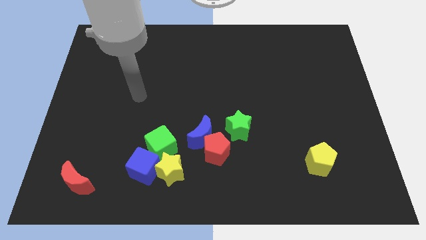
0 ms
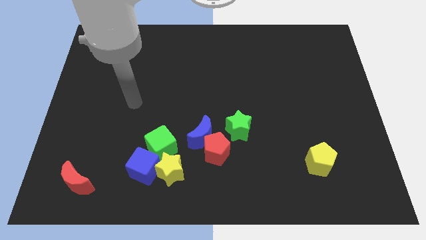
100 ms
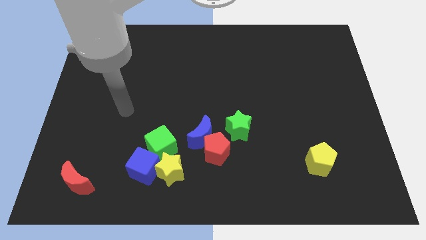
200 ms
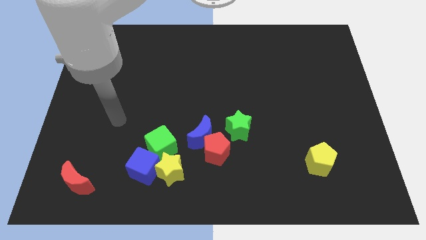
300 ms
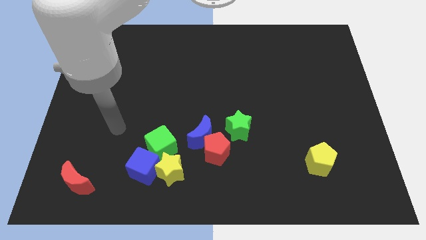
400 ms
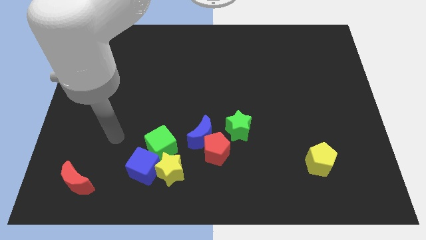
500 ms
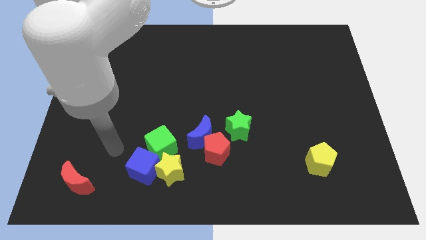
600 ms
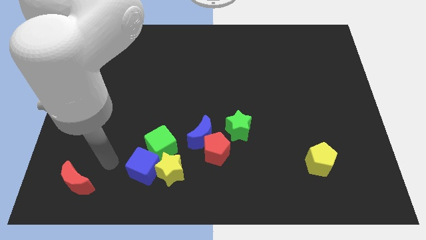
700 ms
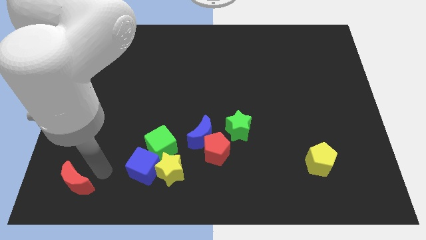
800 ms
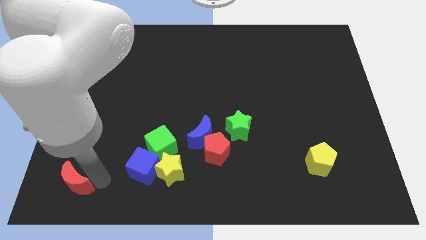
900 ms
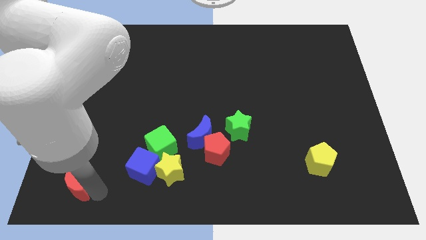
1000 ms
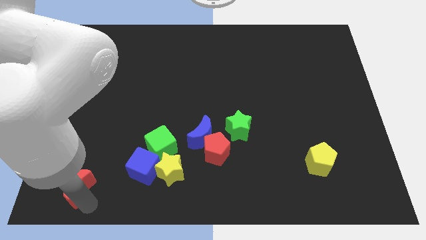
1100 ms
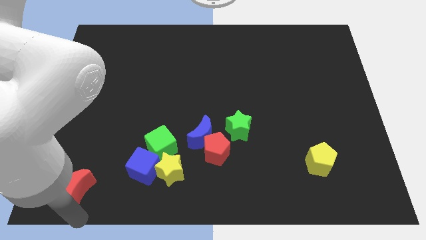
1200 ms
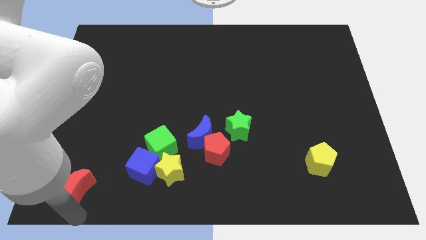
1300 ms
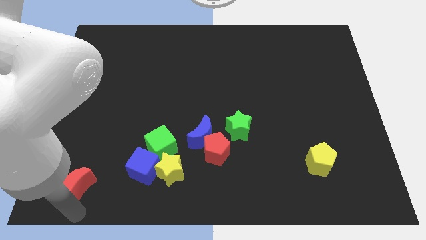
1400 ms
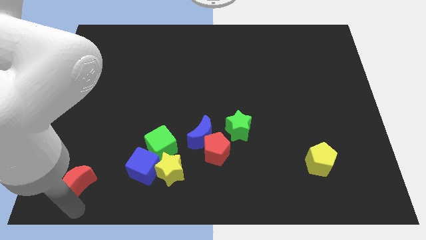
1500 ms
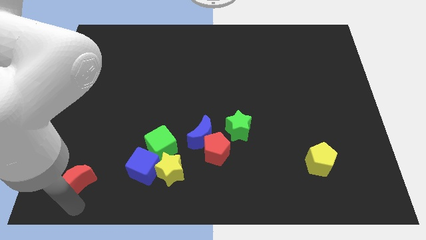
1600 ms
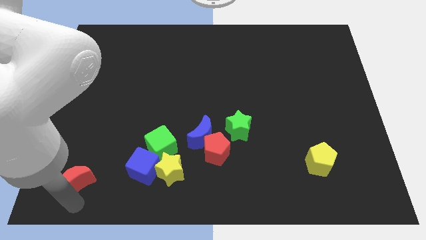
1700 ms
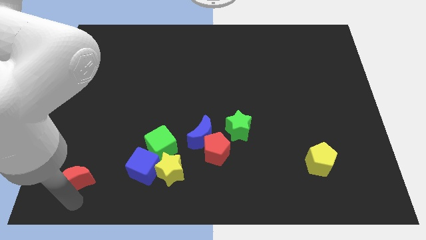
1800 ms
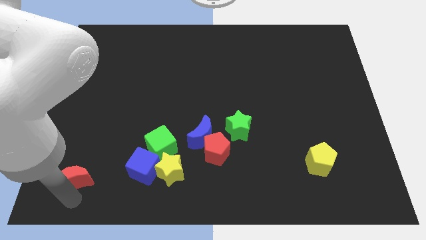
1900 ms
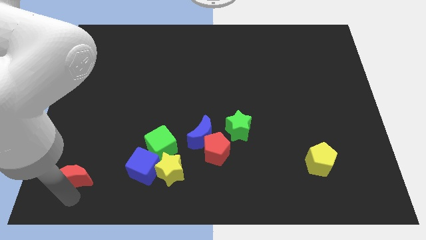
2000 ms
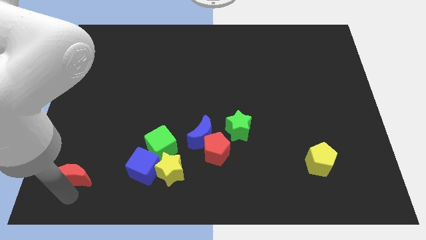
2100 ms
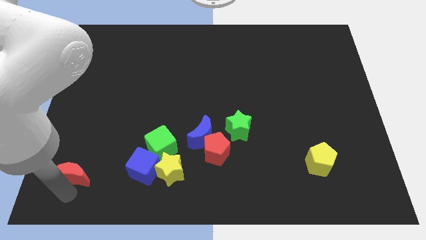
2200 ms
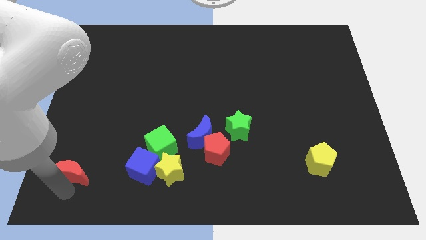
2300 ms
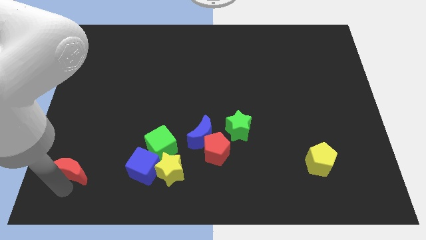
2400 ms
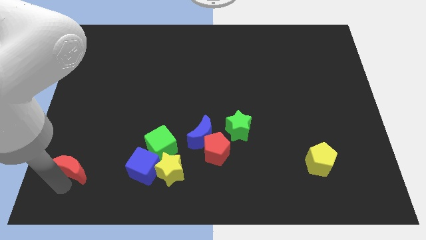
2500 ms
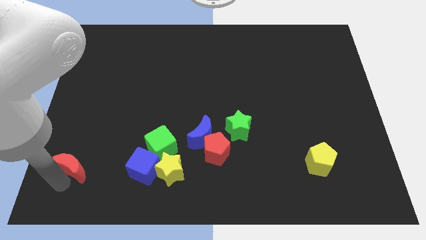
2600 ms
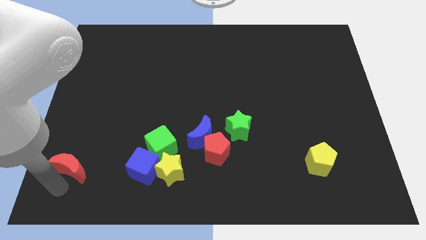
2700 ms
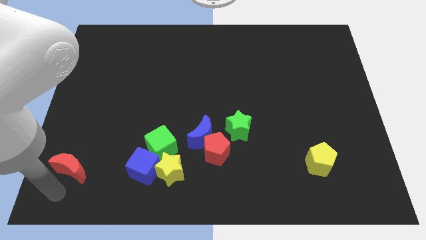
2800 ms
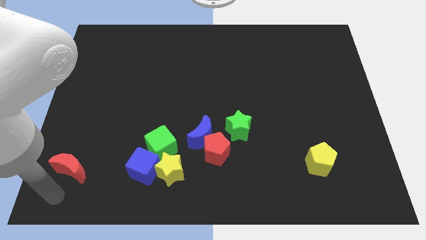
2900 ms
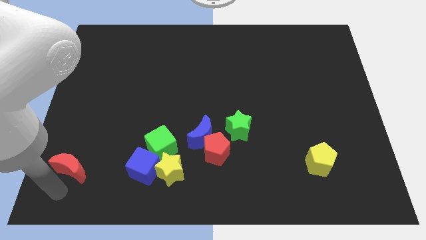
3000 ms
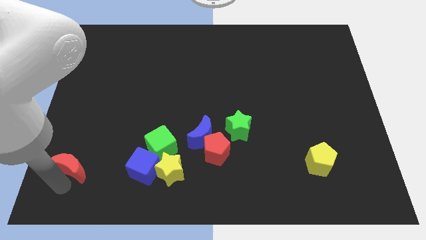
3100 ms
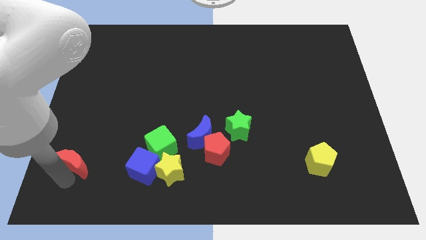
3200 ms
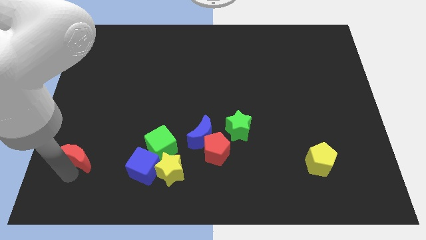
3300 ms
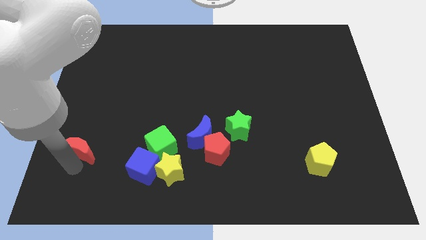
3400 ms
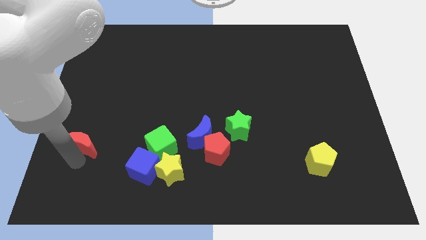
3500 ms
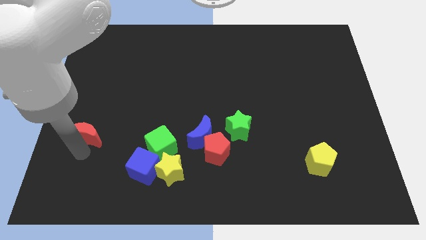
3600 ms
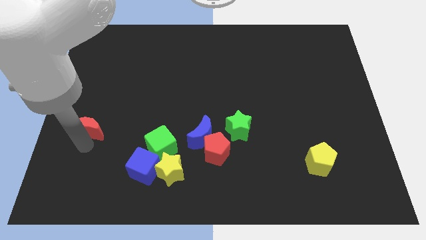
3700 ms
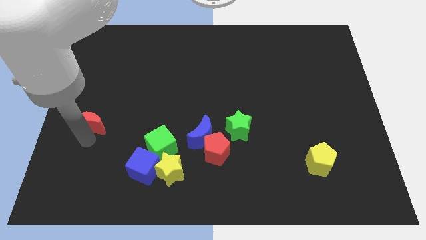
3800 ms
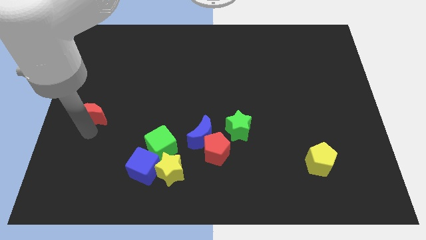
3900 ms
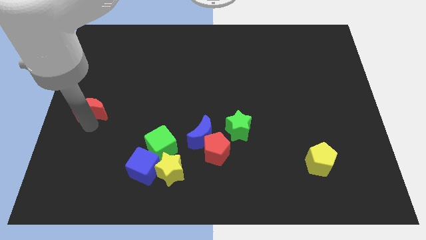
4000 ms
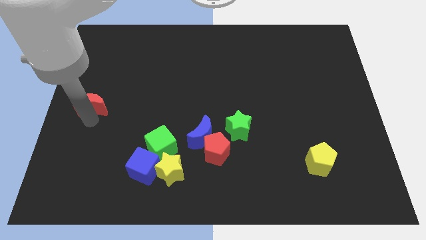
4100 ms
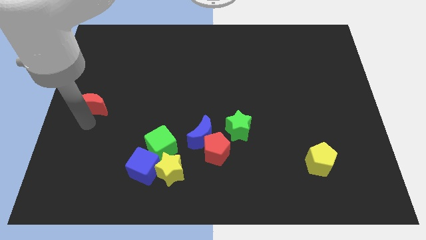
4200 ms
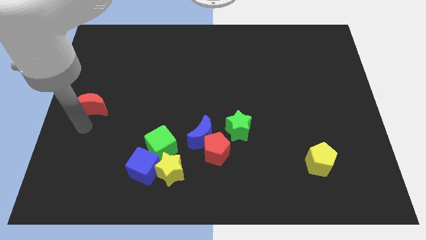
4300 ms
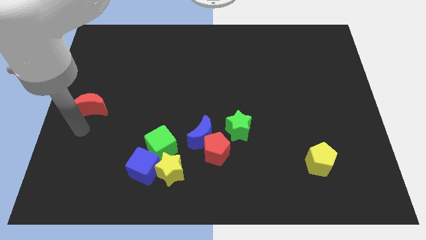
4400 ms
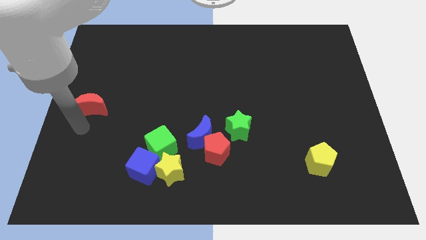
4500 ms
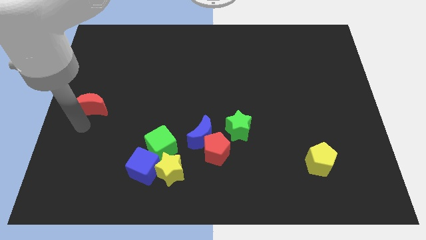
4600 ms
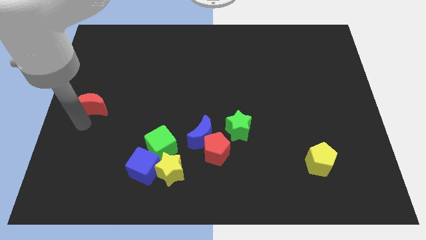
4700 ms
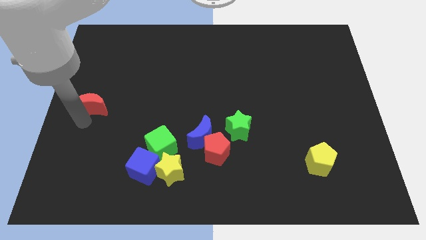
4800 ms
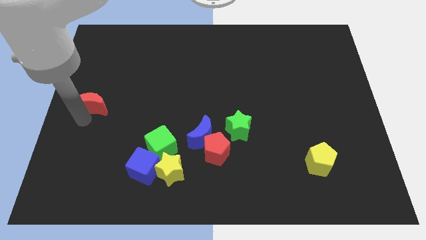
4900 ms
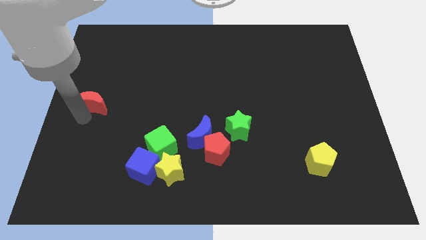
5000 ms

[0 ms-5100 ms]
push the red moon upwards

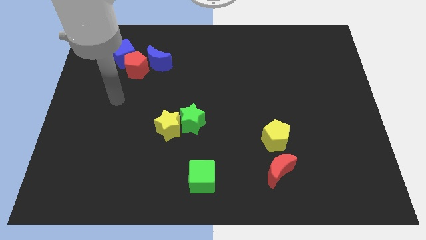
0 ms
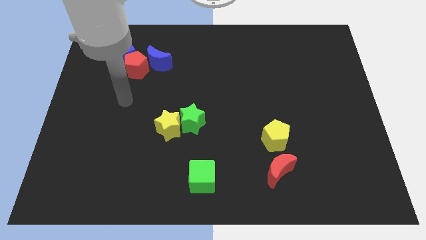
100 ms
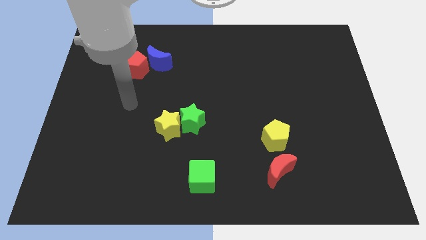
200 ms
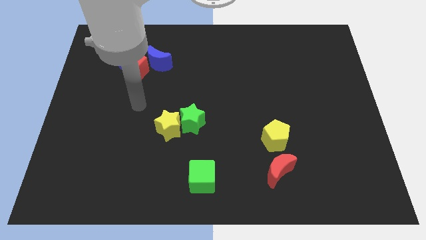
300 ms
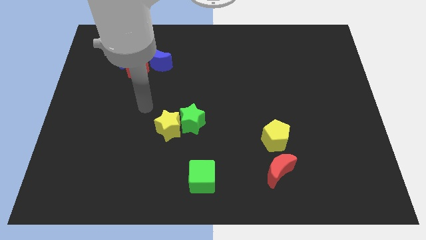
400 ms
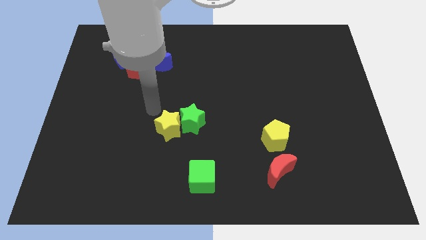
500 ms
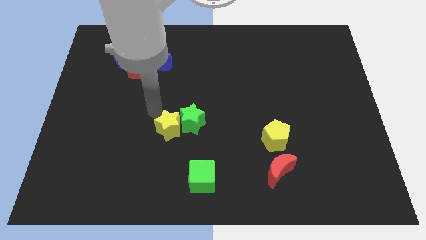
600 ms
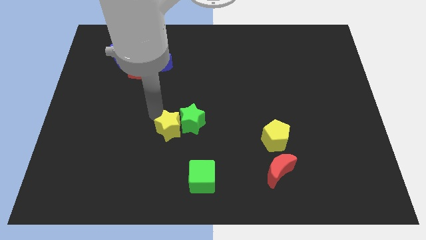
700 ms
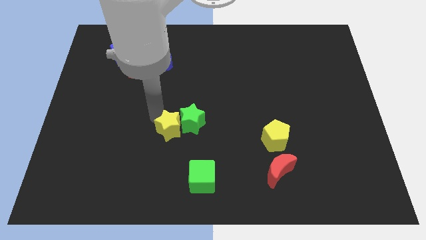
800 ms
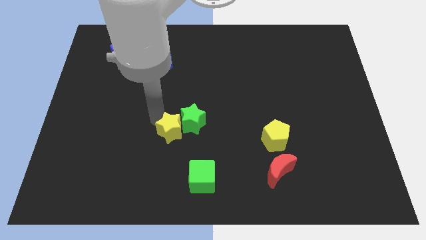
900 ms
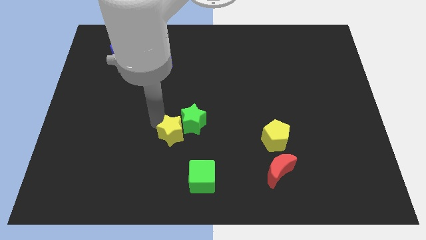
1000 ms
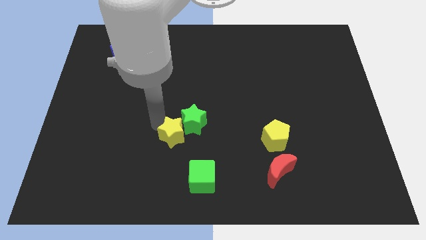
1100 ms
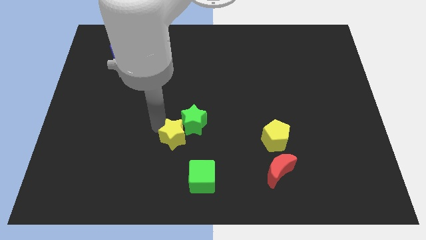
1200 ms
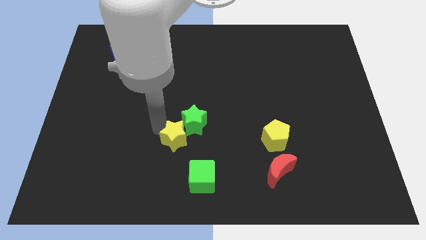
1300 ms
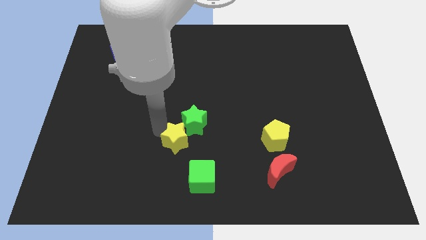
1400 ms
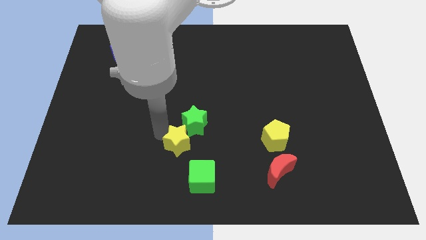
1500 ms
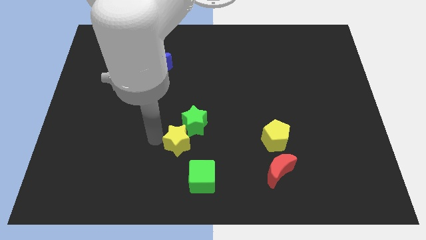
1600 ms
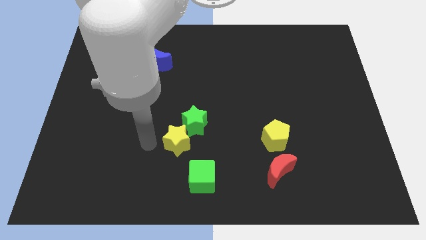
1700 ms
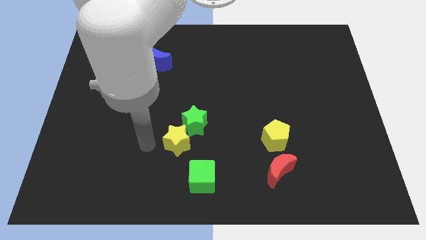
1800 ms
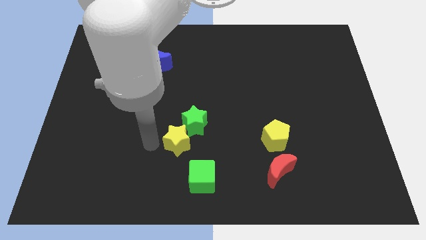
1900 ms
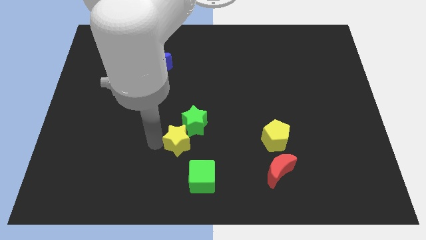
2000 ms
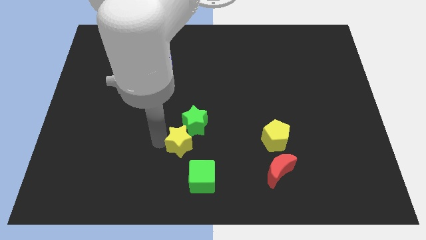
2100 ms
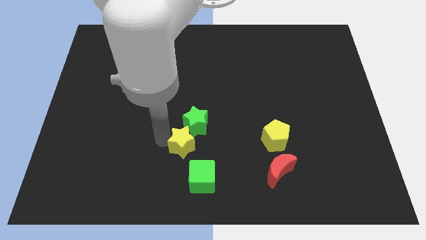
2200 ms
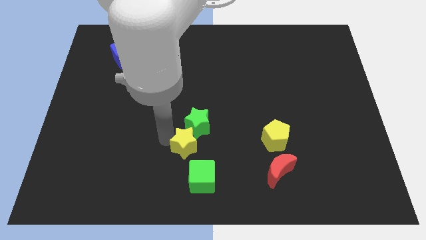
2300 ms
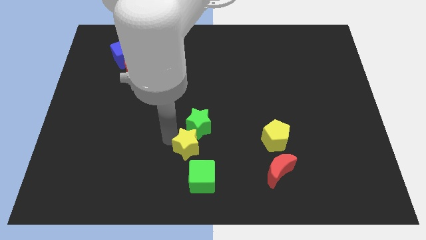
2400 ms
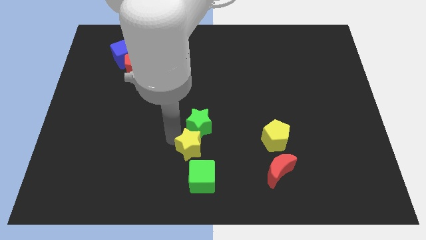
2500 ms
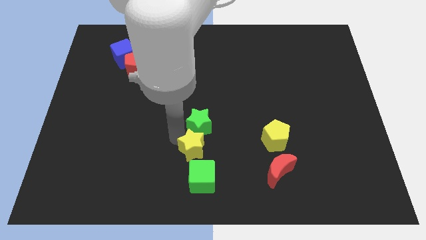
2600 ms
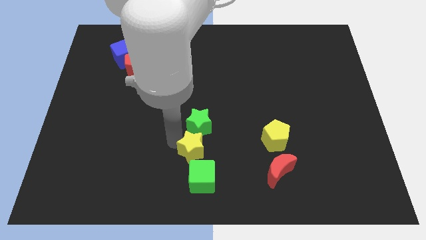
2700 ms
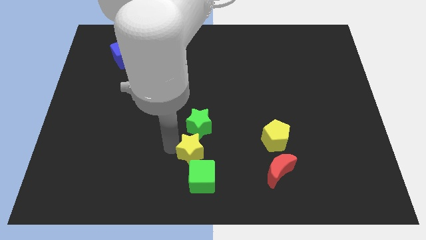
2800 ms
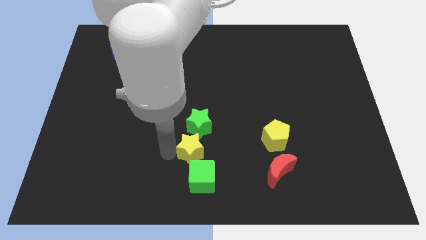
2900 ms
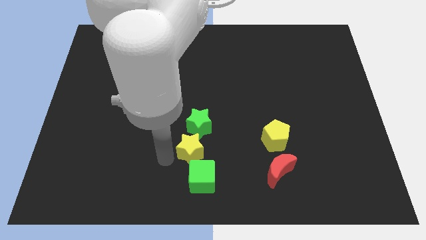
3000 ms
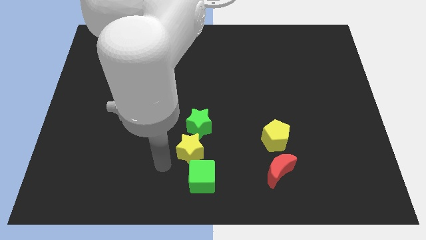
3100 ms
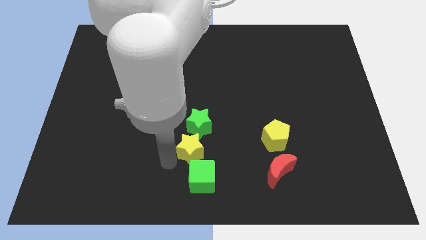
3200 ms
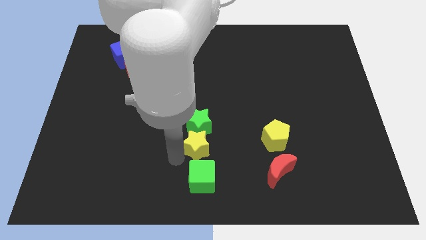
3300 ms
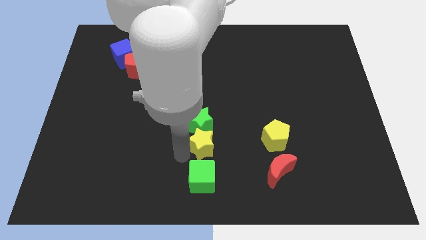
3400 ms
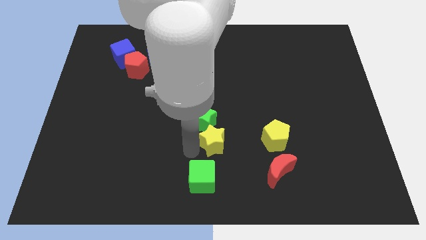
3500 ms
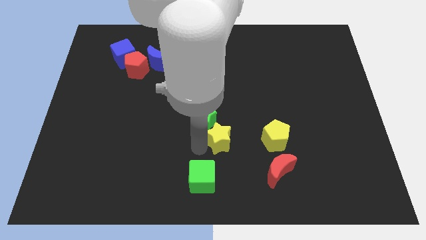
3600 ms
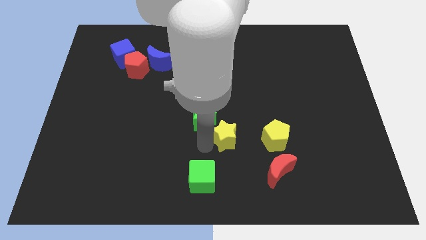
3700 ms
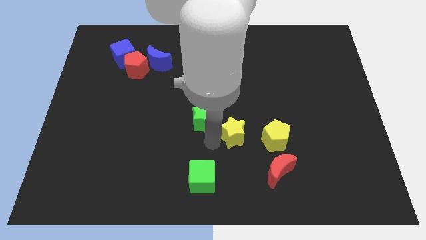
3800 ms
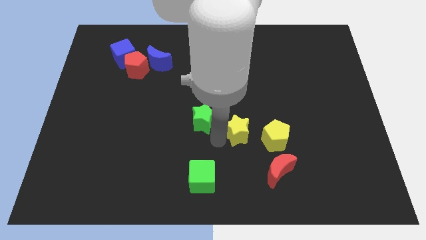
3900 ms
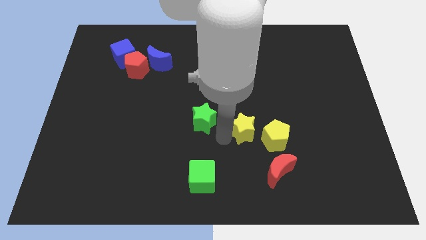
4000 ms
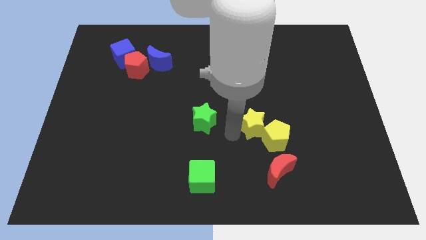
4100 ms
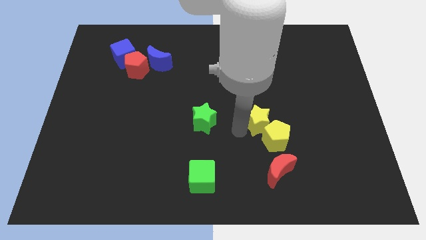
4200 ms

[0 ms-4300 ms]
push the yellow star to the right
